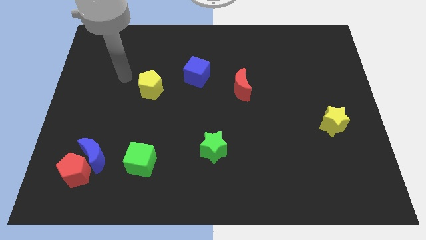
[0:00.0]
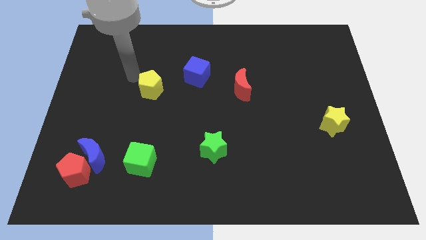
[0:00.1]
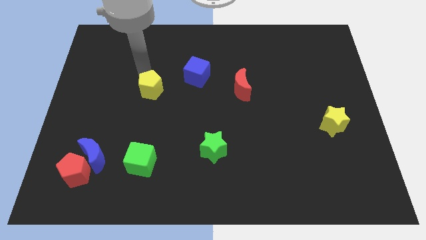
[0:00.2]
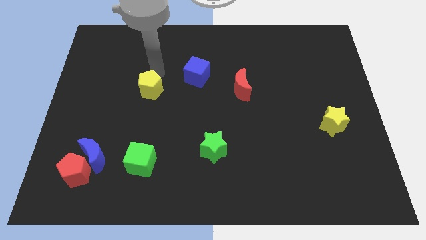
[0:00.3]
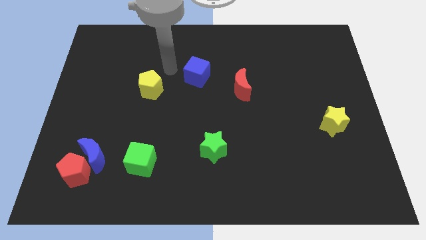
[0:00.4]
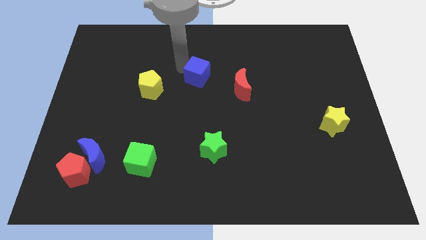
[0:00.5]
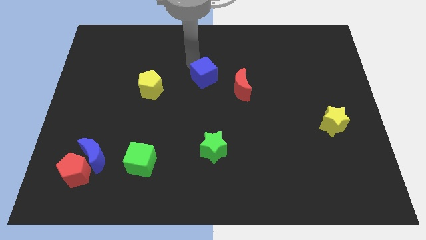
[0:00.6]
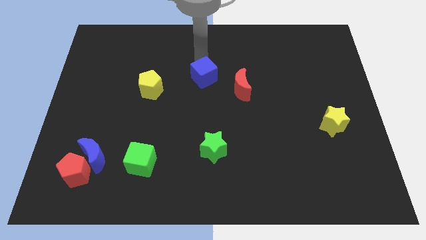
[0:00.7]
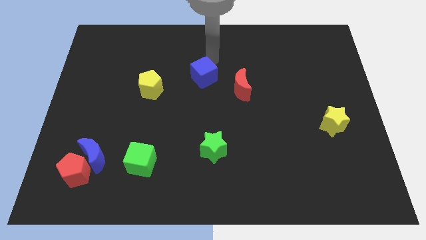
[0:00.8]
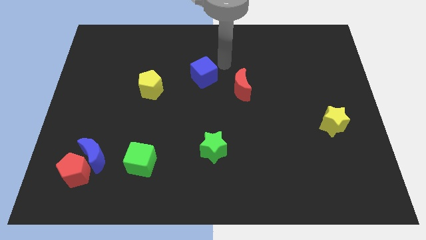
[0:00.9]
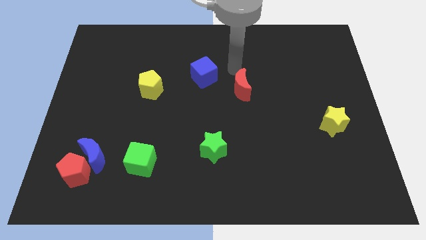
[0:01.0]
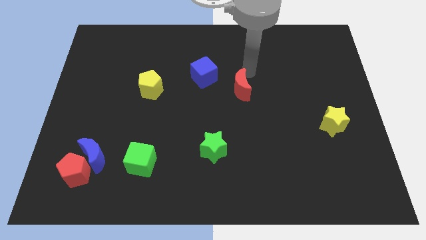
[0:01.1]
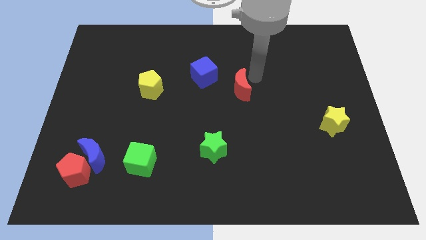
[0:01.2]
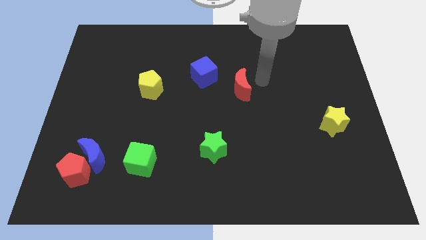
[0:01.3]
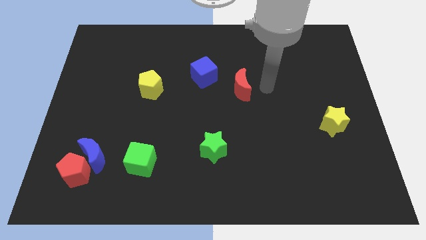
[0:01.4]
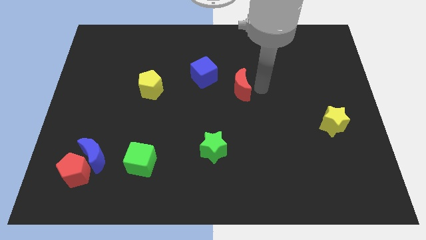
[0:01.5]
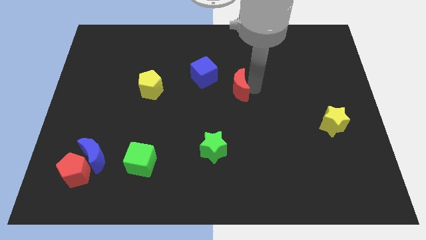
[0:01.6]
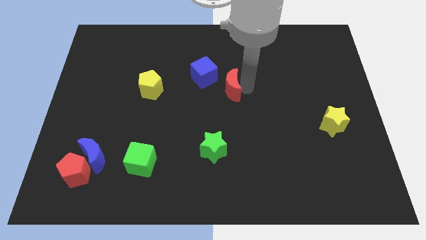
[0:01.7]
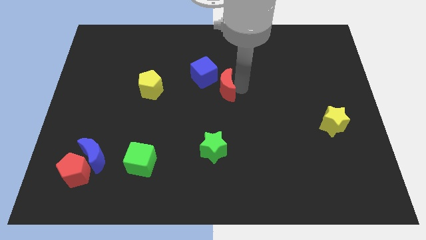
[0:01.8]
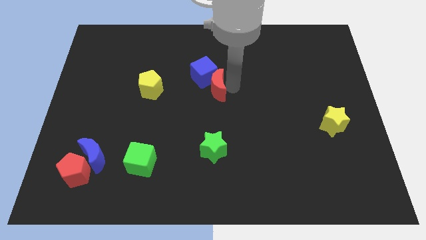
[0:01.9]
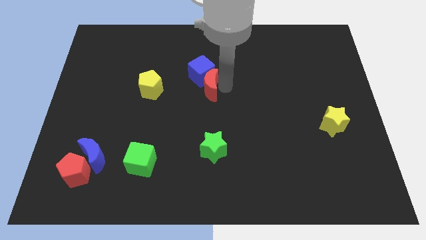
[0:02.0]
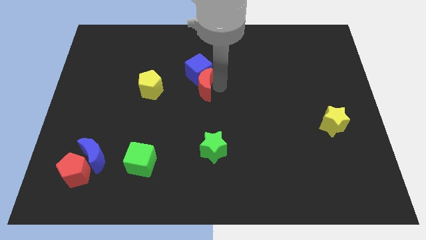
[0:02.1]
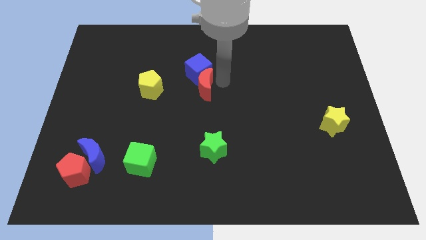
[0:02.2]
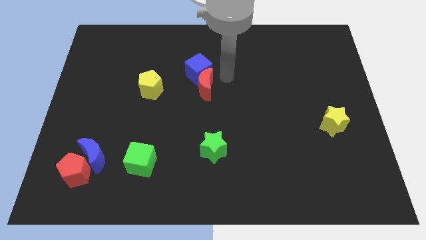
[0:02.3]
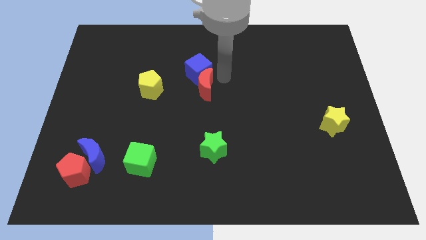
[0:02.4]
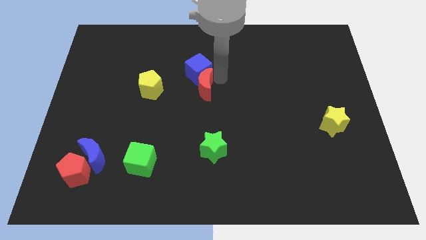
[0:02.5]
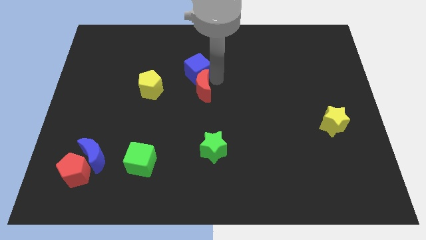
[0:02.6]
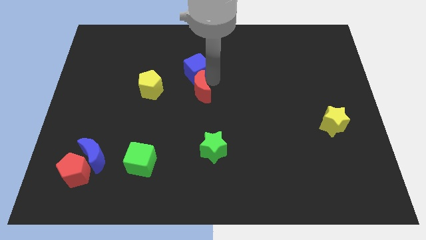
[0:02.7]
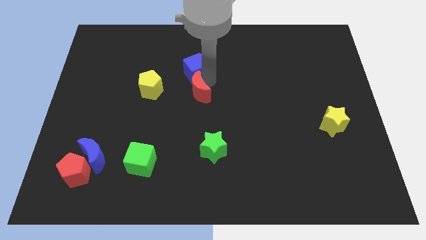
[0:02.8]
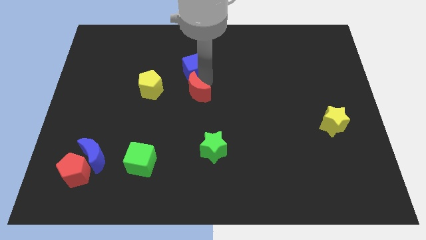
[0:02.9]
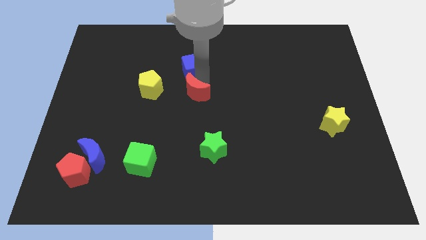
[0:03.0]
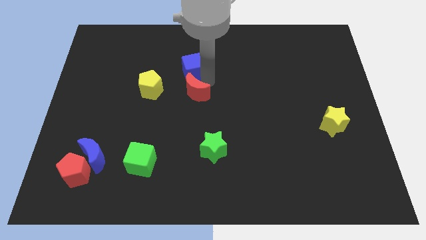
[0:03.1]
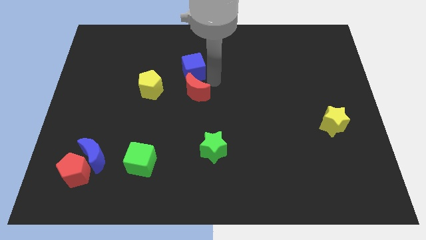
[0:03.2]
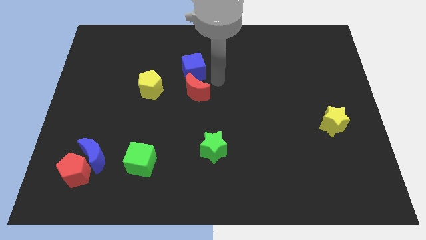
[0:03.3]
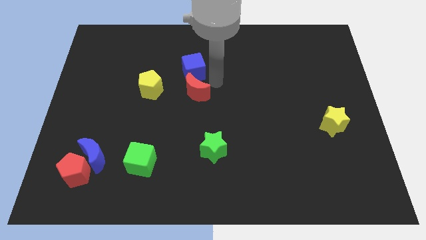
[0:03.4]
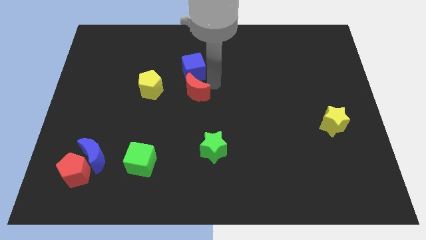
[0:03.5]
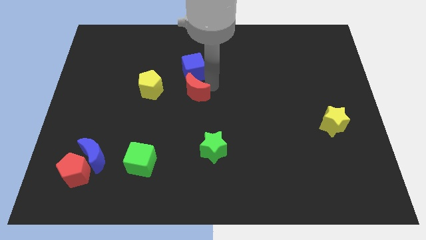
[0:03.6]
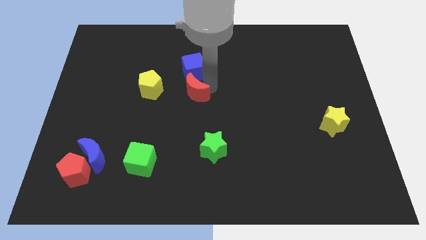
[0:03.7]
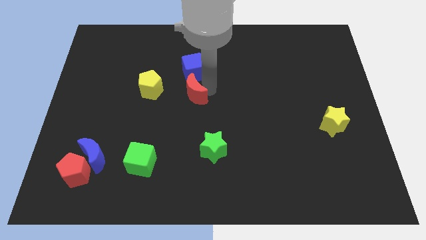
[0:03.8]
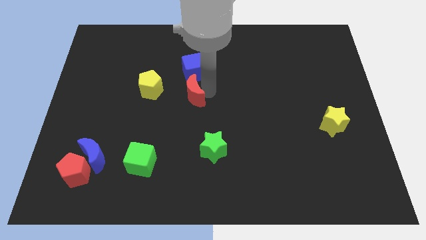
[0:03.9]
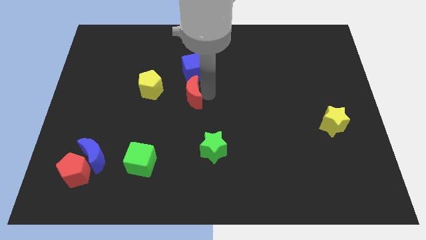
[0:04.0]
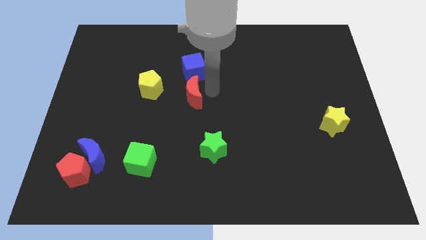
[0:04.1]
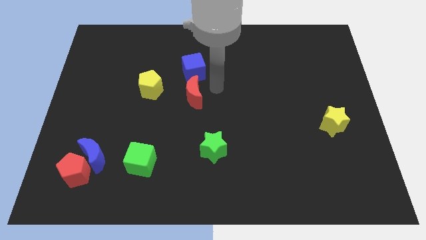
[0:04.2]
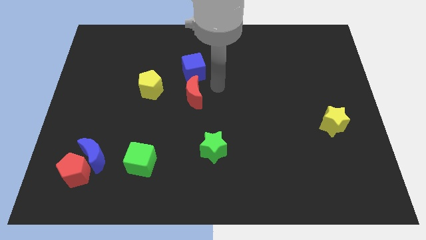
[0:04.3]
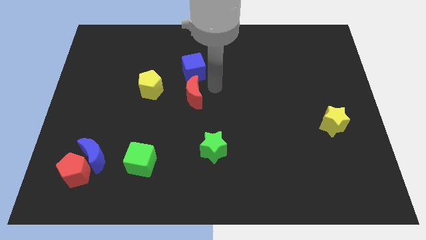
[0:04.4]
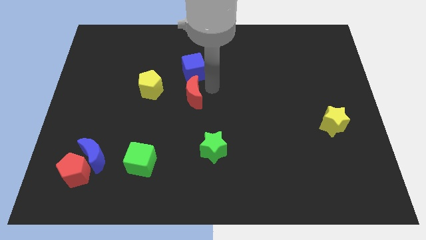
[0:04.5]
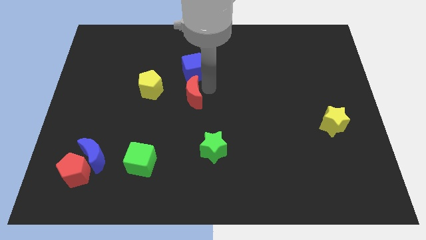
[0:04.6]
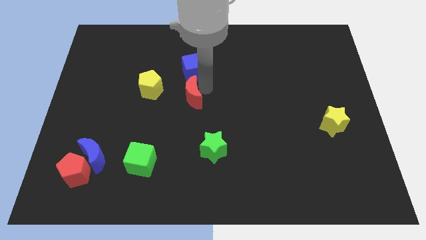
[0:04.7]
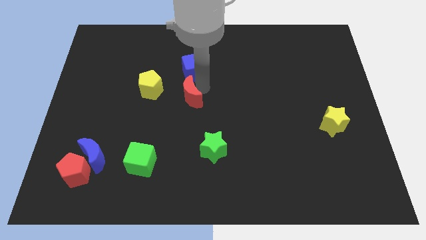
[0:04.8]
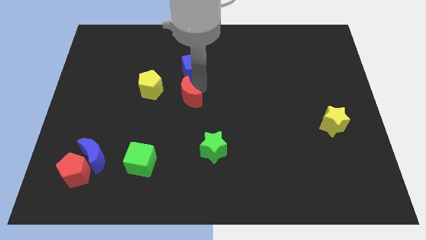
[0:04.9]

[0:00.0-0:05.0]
slide the red moon to the bottom right of the yellow pentagon

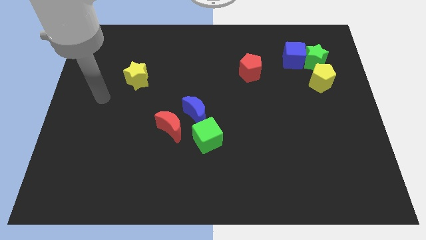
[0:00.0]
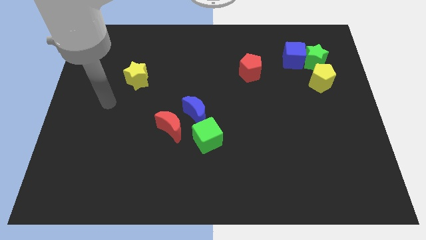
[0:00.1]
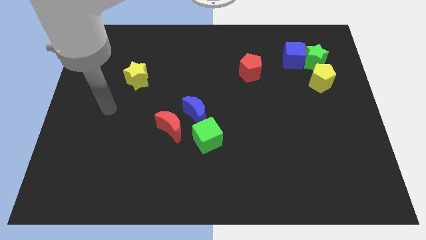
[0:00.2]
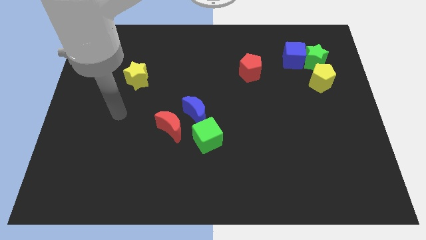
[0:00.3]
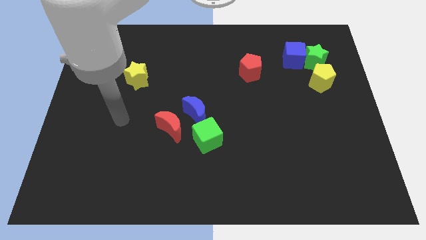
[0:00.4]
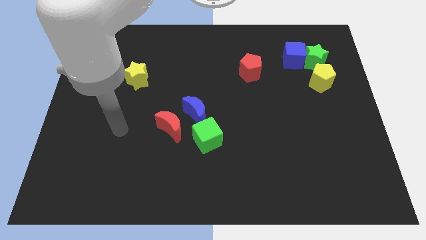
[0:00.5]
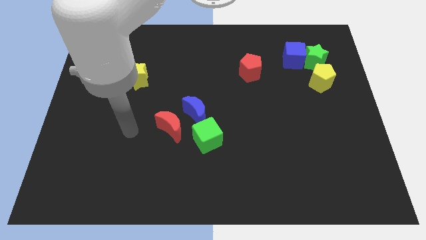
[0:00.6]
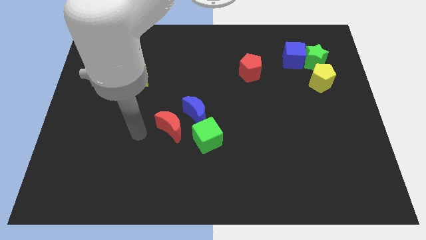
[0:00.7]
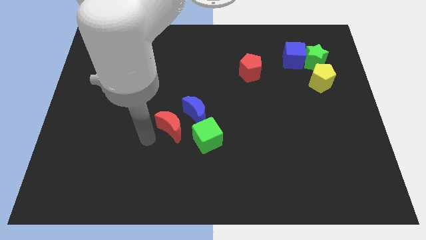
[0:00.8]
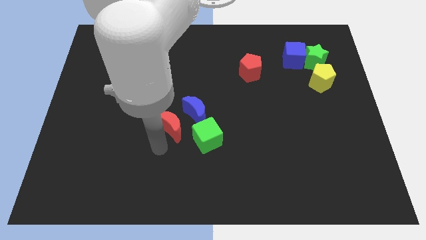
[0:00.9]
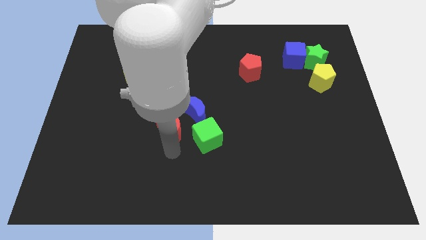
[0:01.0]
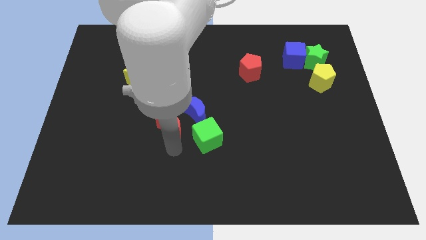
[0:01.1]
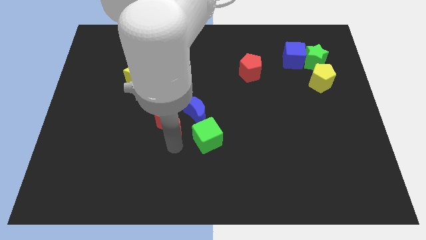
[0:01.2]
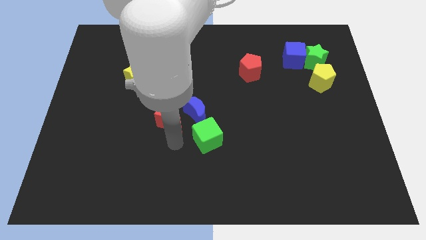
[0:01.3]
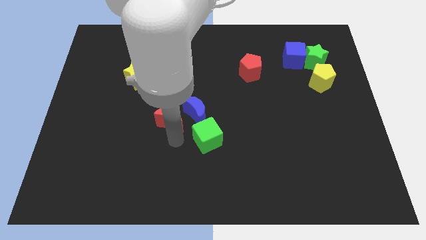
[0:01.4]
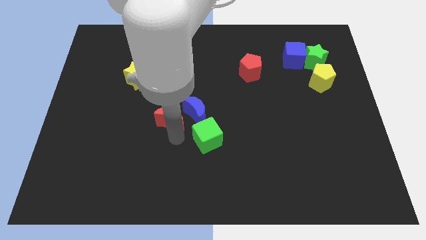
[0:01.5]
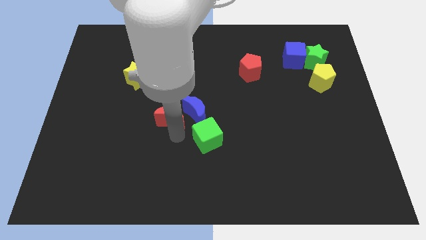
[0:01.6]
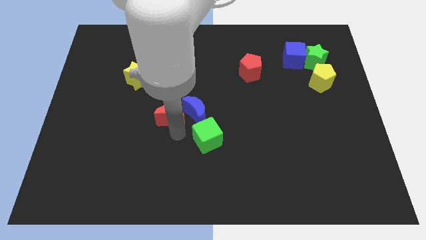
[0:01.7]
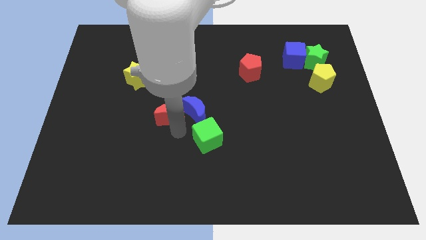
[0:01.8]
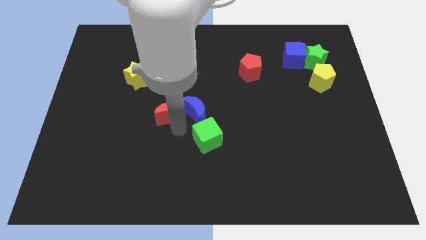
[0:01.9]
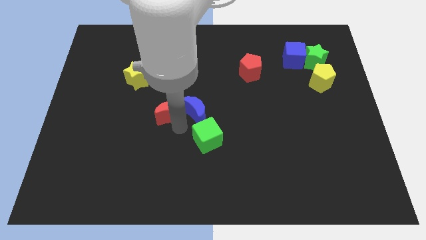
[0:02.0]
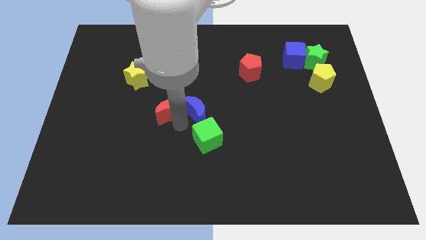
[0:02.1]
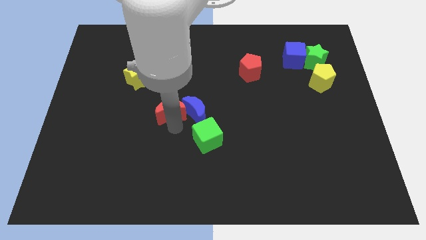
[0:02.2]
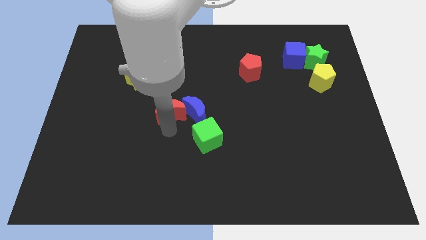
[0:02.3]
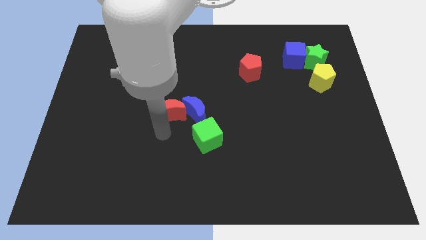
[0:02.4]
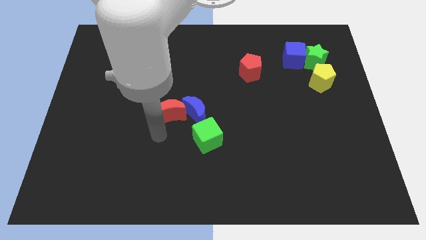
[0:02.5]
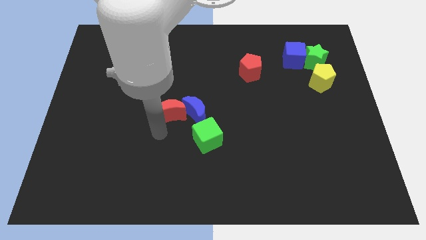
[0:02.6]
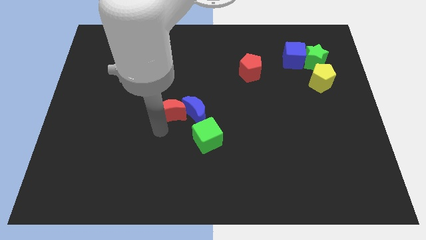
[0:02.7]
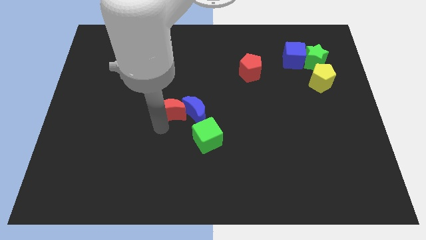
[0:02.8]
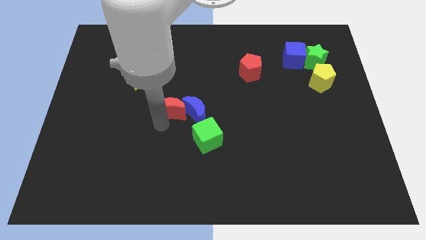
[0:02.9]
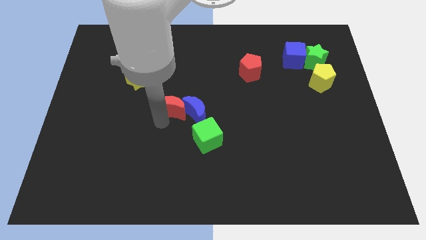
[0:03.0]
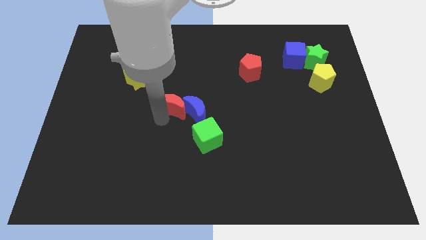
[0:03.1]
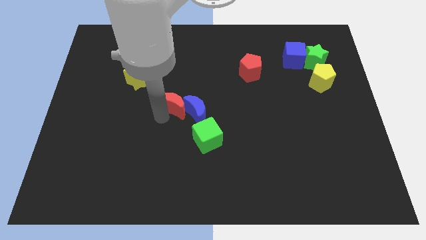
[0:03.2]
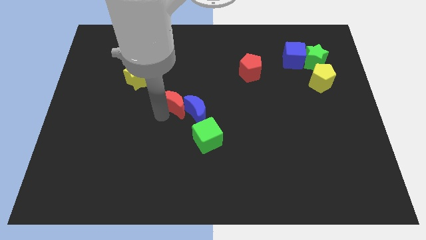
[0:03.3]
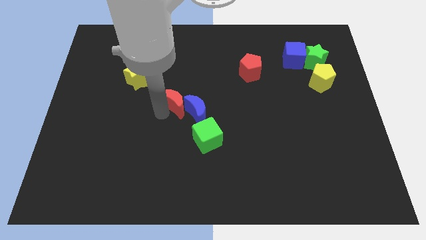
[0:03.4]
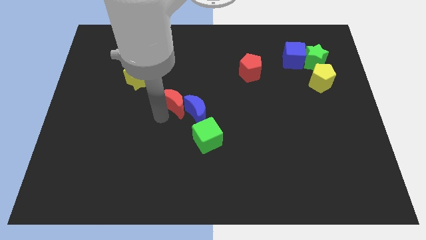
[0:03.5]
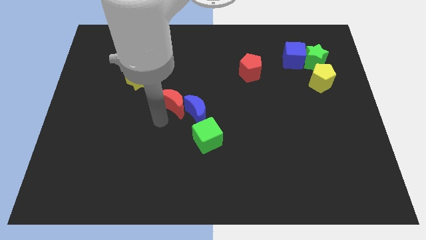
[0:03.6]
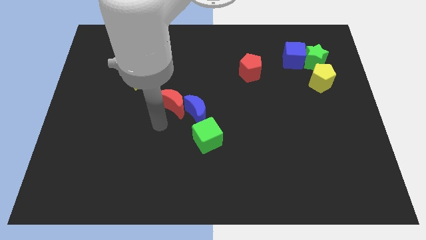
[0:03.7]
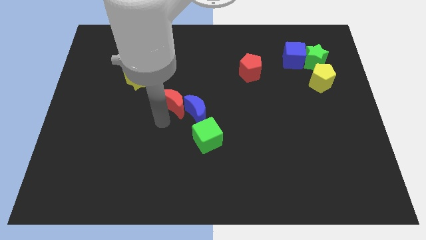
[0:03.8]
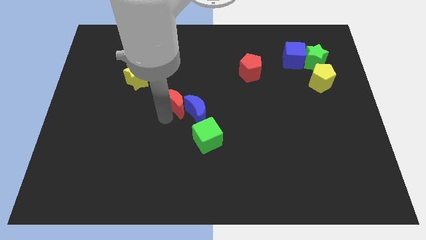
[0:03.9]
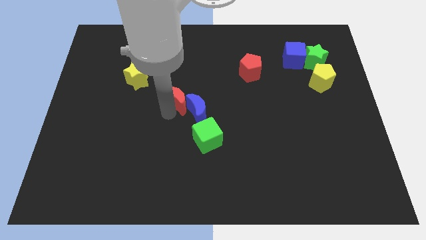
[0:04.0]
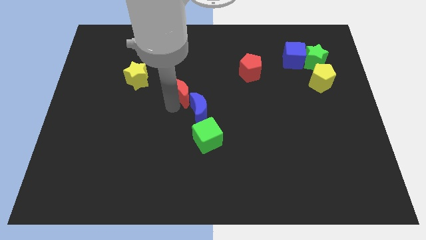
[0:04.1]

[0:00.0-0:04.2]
move the red moon above the blue moon
